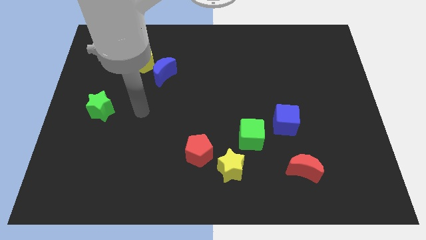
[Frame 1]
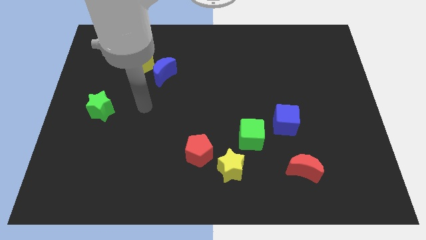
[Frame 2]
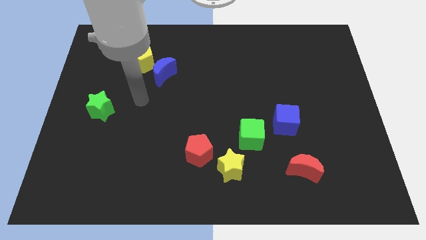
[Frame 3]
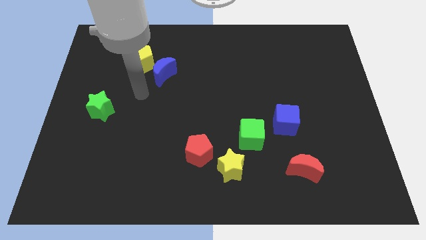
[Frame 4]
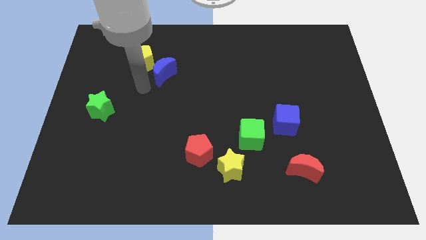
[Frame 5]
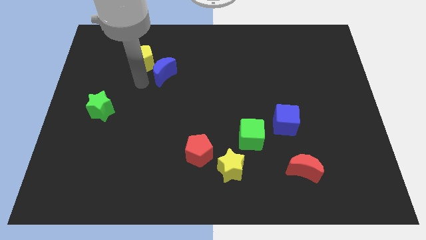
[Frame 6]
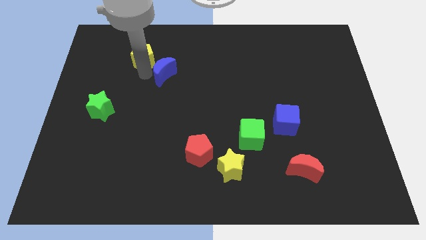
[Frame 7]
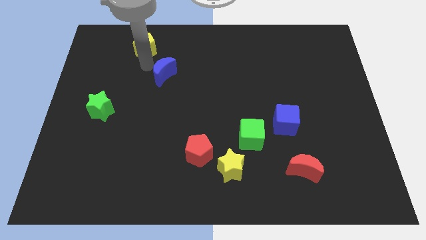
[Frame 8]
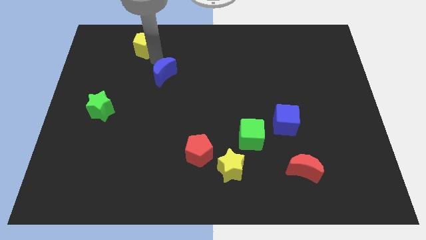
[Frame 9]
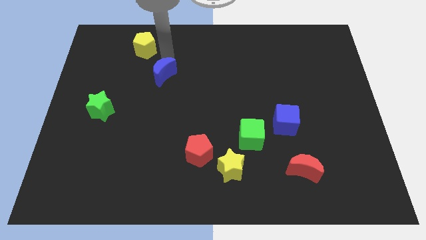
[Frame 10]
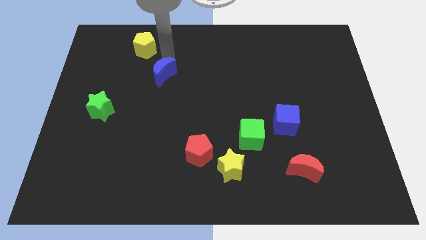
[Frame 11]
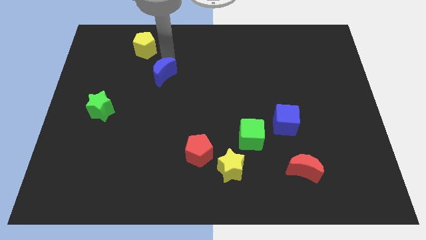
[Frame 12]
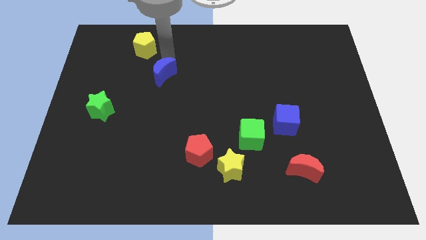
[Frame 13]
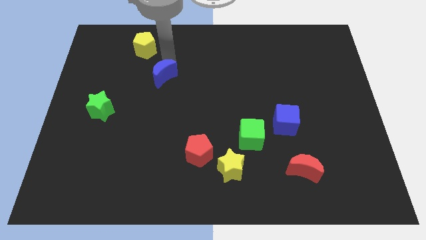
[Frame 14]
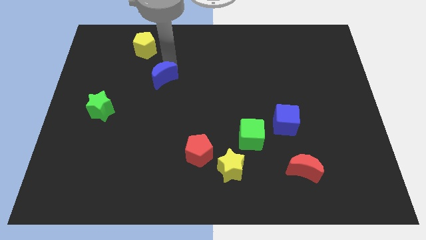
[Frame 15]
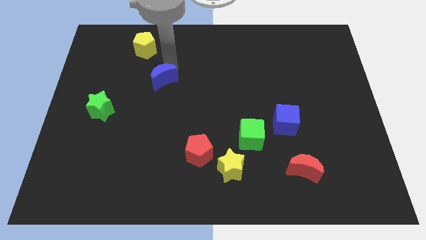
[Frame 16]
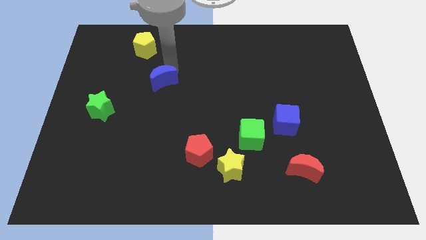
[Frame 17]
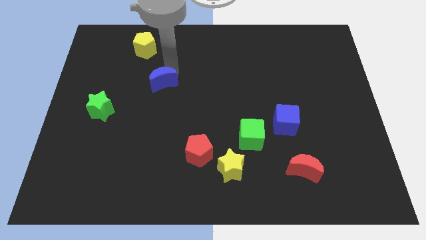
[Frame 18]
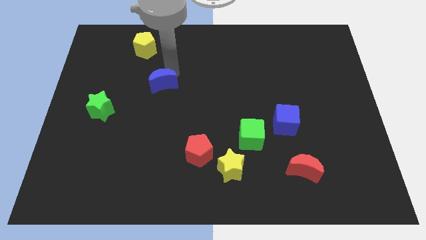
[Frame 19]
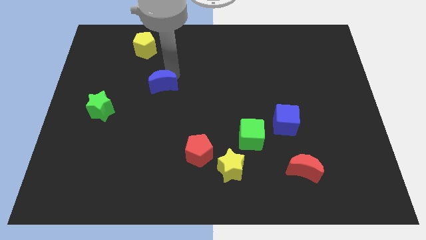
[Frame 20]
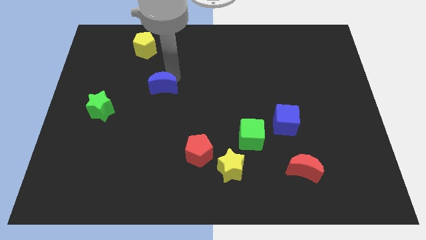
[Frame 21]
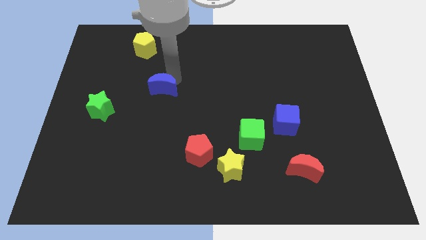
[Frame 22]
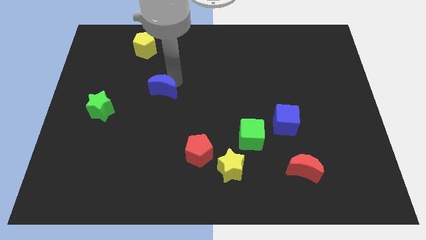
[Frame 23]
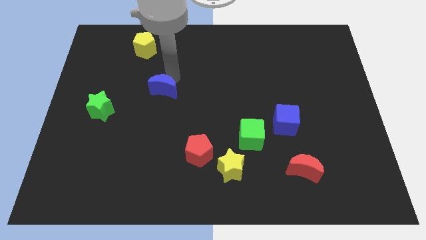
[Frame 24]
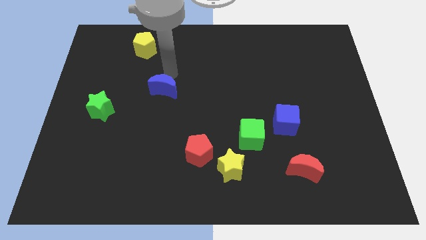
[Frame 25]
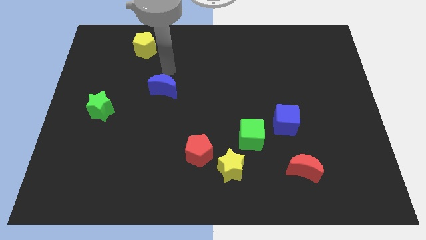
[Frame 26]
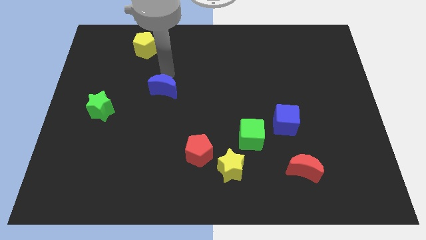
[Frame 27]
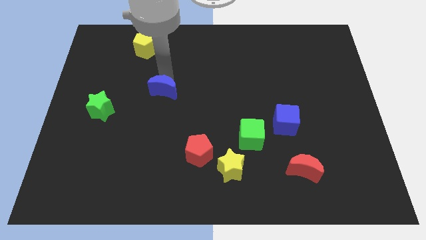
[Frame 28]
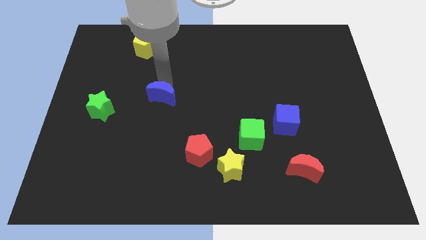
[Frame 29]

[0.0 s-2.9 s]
slightly push the blue moon down

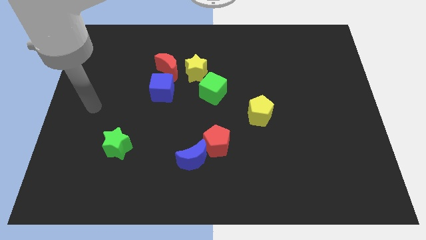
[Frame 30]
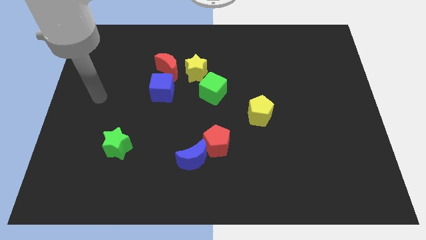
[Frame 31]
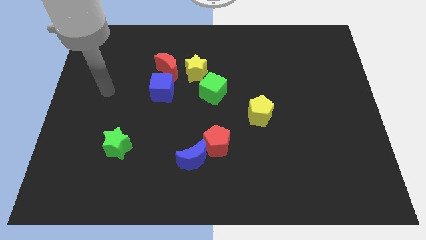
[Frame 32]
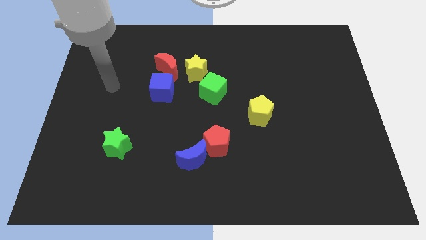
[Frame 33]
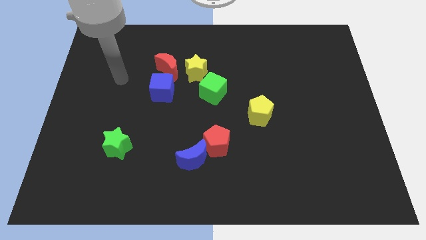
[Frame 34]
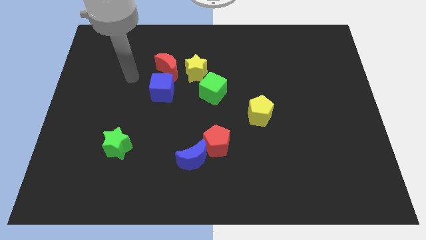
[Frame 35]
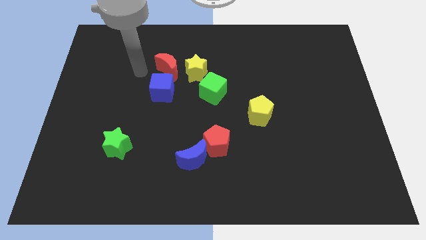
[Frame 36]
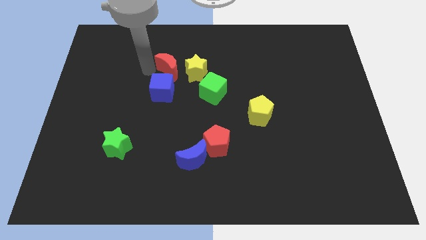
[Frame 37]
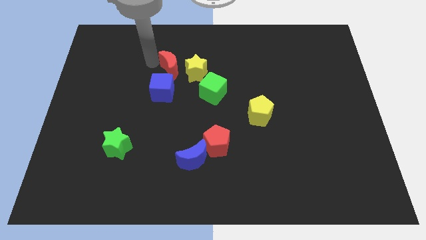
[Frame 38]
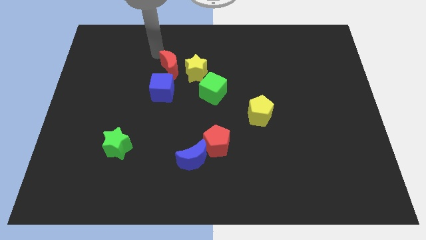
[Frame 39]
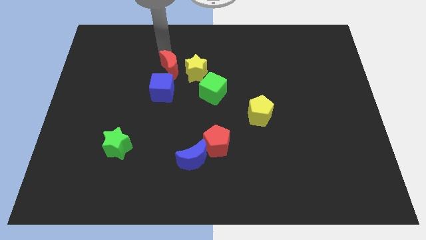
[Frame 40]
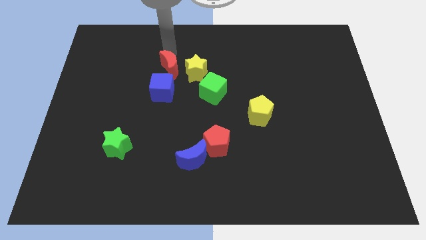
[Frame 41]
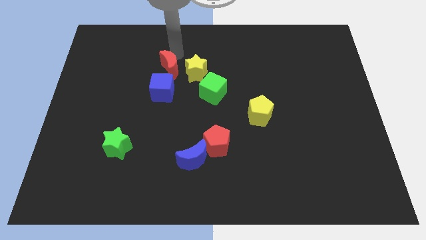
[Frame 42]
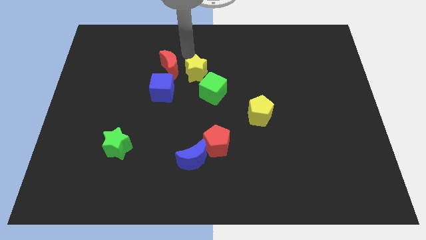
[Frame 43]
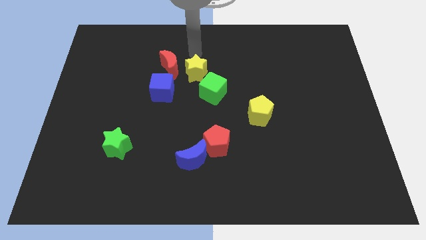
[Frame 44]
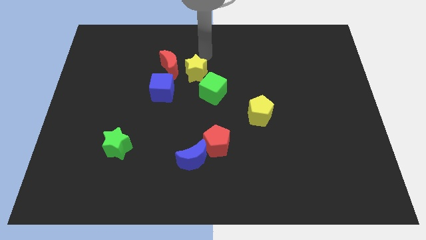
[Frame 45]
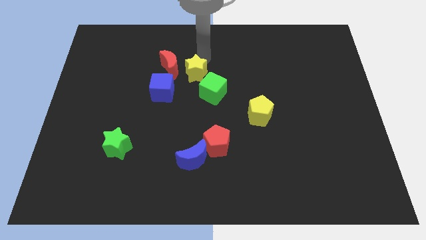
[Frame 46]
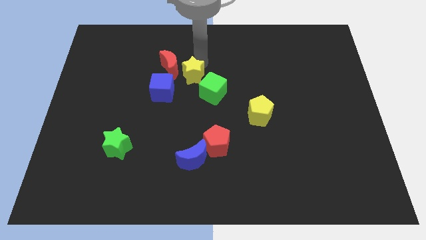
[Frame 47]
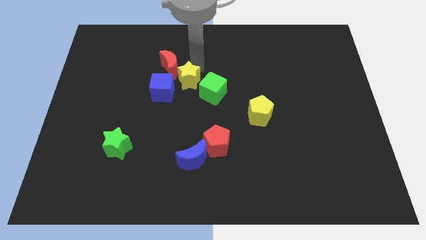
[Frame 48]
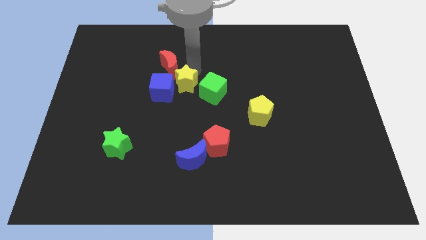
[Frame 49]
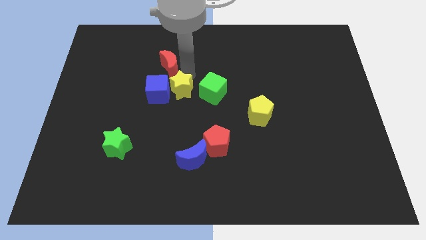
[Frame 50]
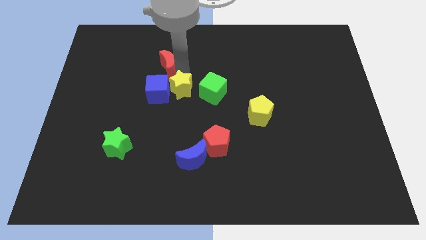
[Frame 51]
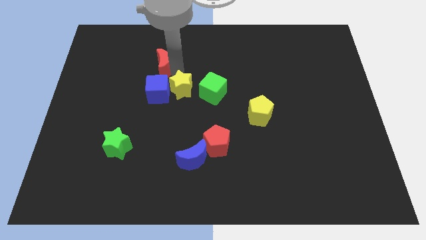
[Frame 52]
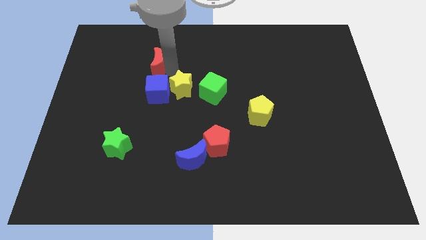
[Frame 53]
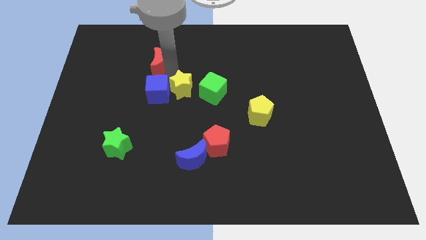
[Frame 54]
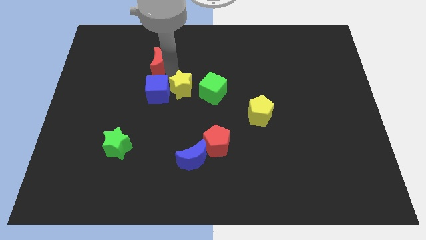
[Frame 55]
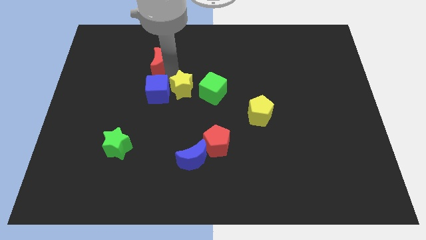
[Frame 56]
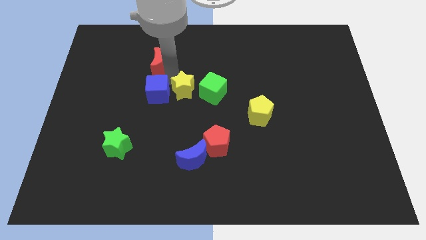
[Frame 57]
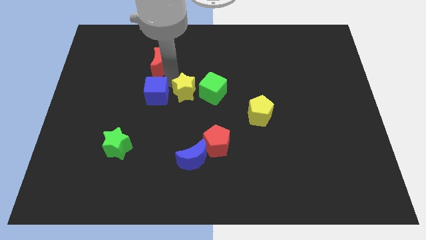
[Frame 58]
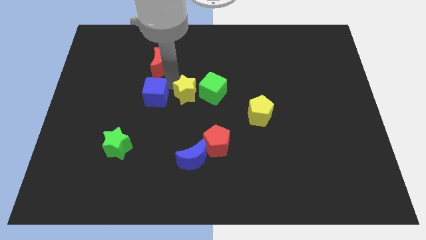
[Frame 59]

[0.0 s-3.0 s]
move the yellow star downwards somewhat

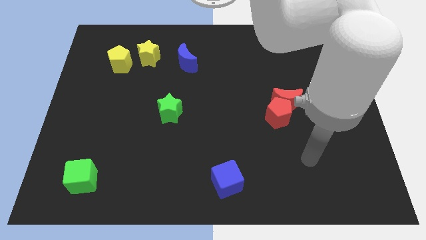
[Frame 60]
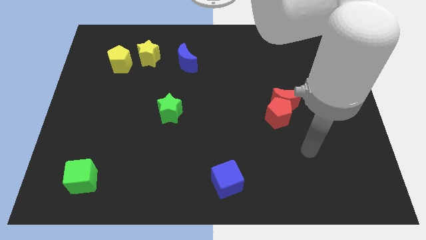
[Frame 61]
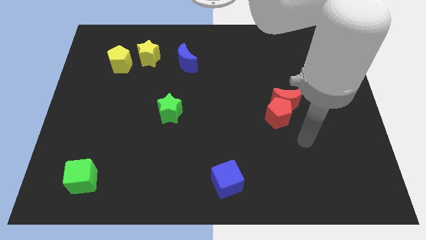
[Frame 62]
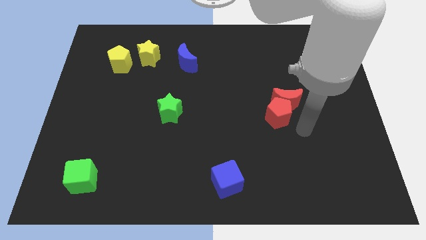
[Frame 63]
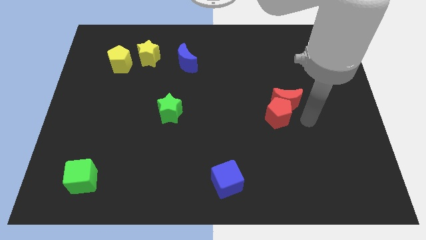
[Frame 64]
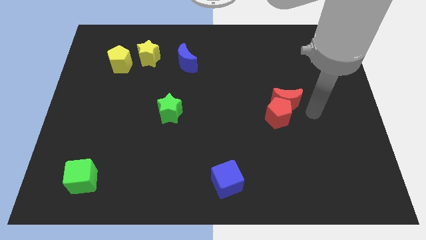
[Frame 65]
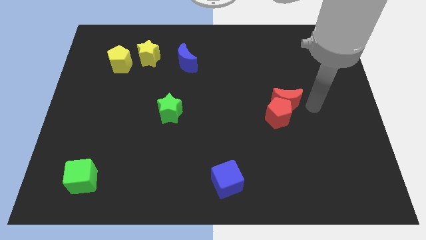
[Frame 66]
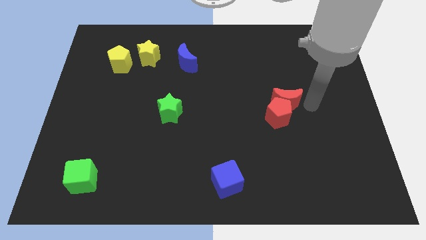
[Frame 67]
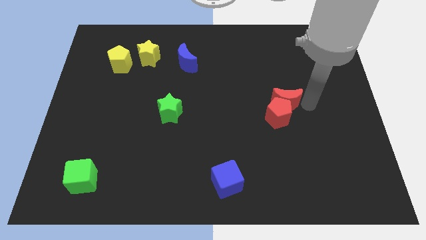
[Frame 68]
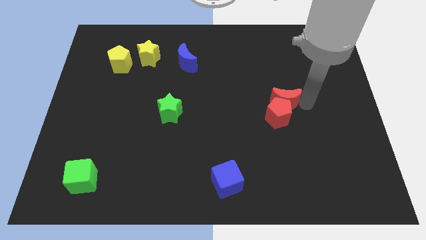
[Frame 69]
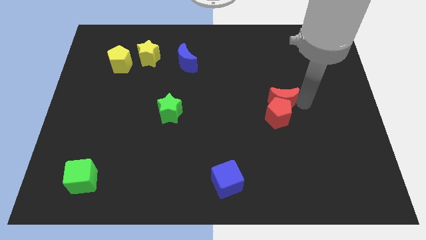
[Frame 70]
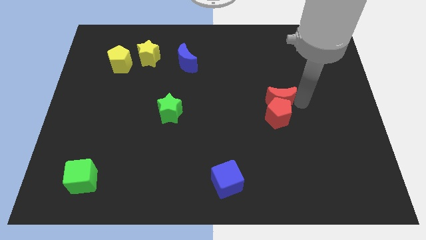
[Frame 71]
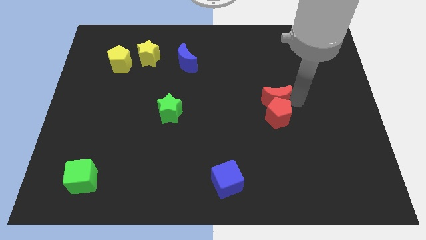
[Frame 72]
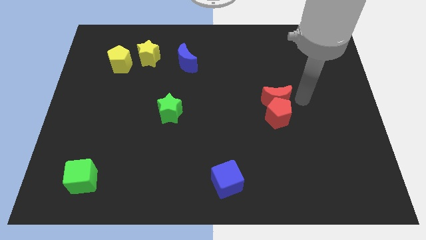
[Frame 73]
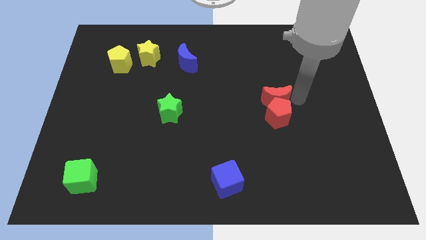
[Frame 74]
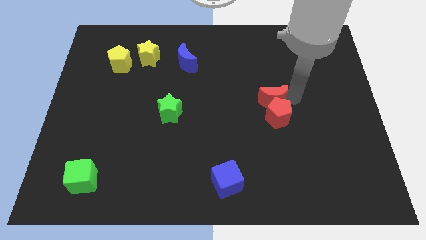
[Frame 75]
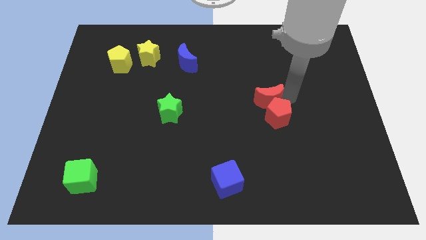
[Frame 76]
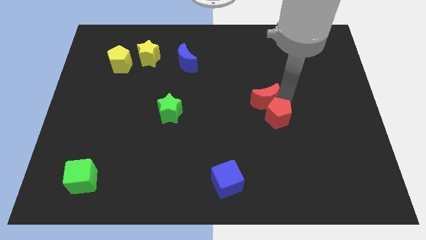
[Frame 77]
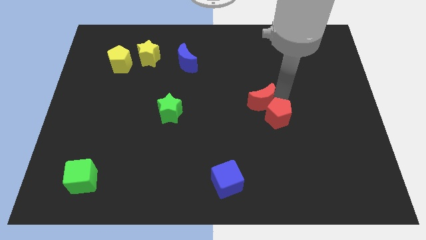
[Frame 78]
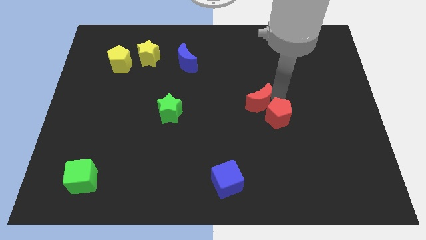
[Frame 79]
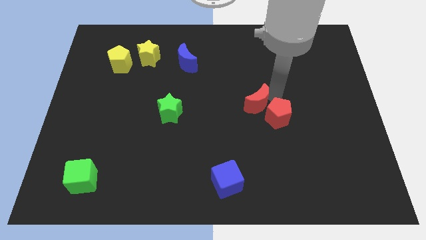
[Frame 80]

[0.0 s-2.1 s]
slide the red moon a little bit left
